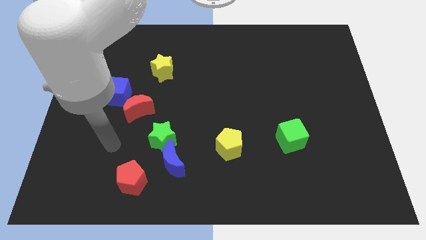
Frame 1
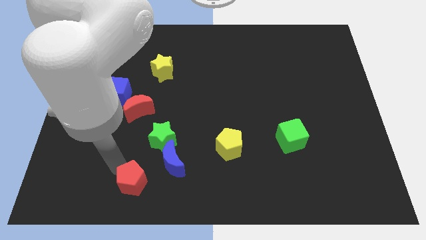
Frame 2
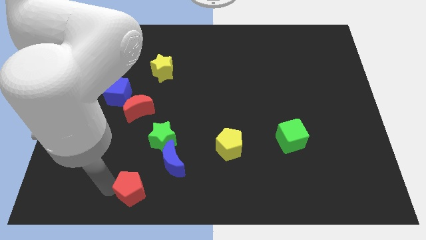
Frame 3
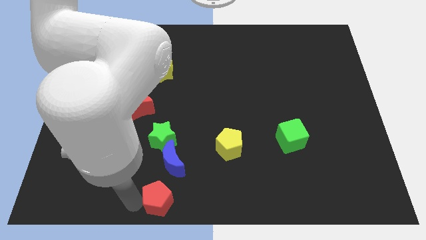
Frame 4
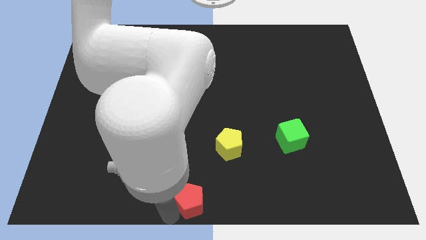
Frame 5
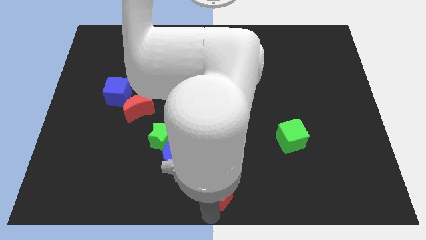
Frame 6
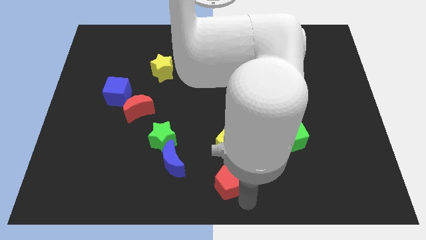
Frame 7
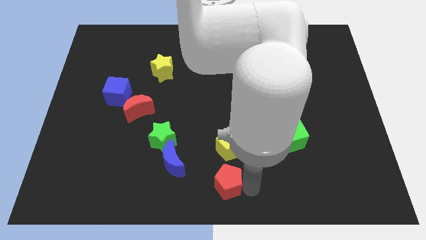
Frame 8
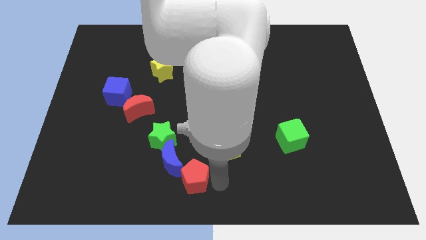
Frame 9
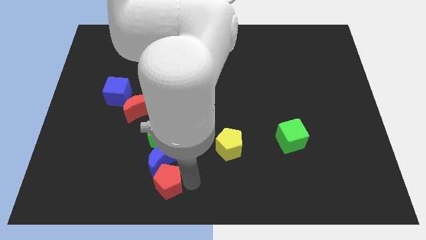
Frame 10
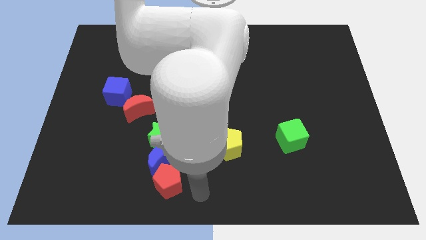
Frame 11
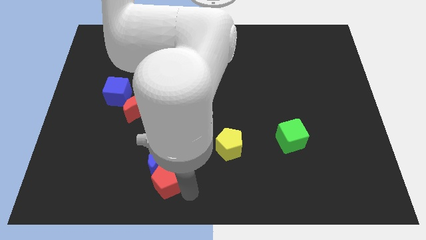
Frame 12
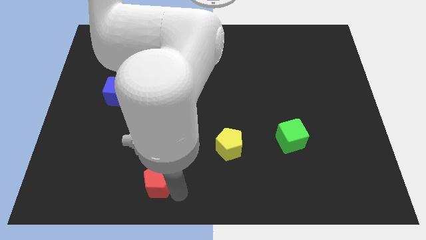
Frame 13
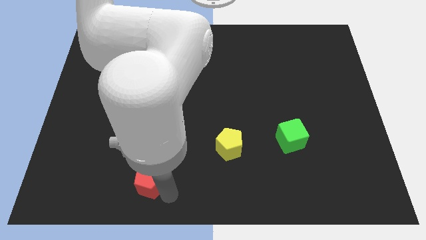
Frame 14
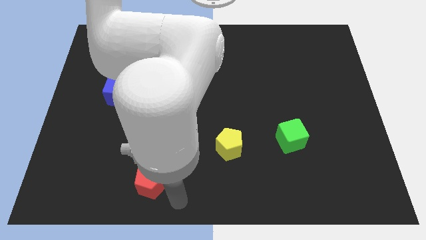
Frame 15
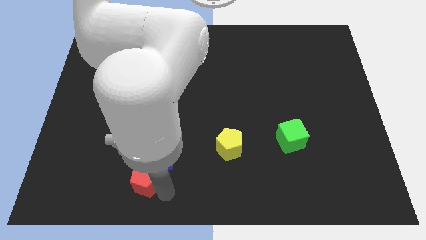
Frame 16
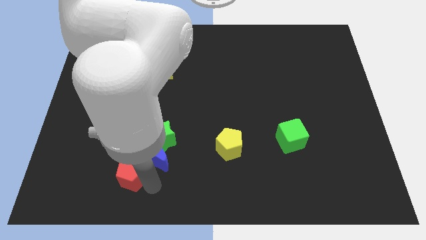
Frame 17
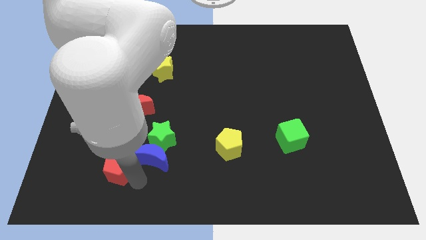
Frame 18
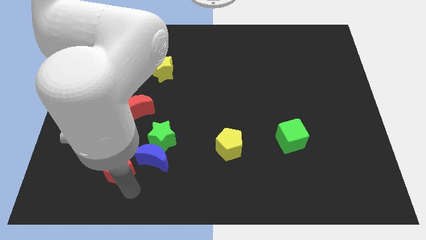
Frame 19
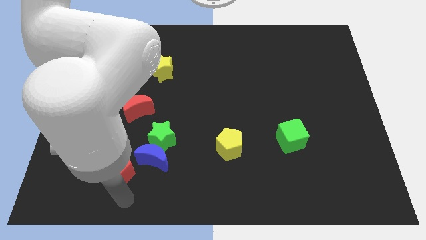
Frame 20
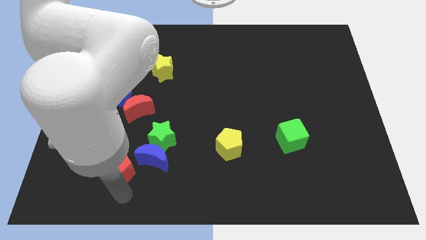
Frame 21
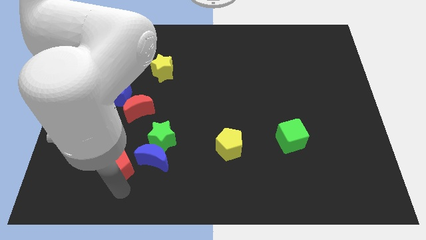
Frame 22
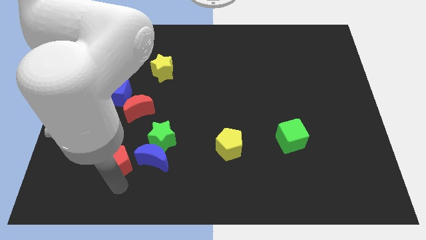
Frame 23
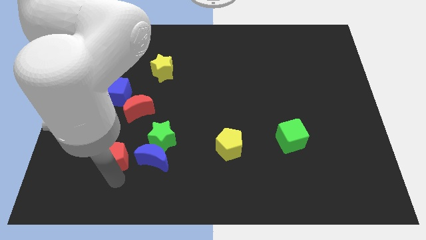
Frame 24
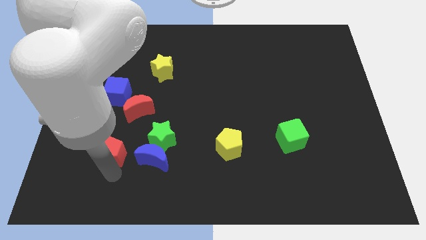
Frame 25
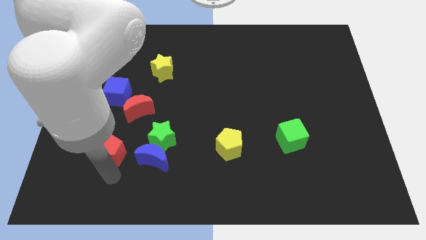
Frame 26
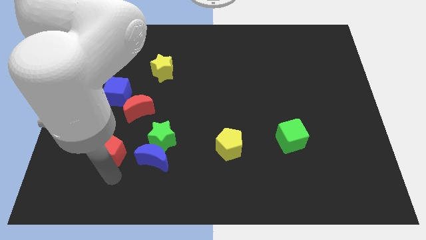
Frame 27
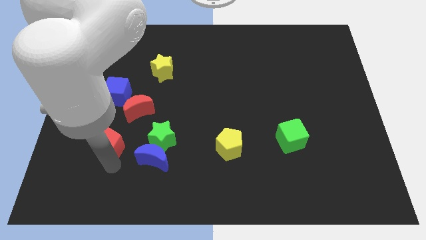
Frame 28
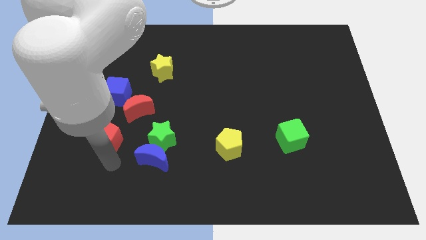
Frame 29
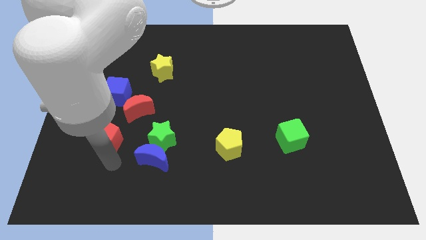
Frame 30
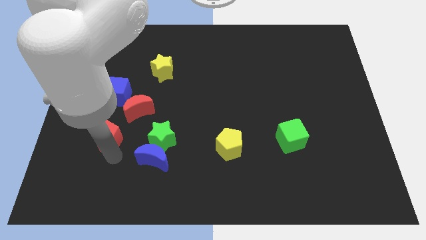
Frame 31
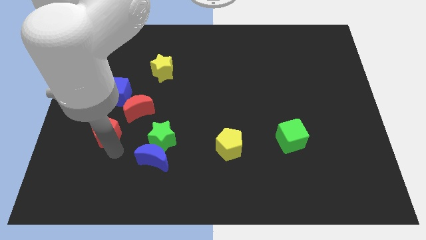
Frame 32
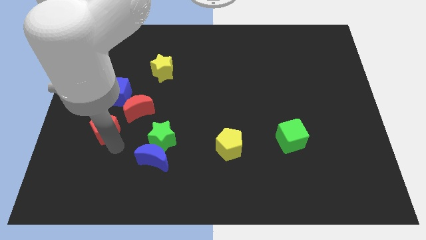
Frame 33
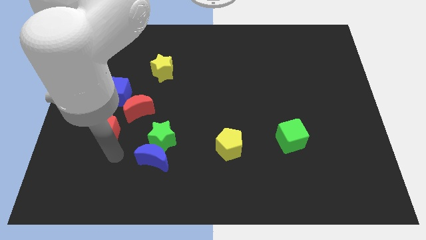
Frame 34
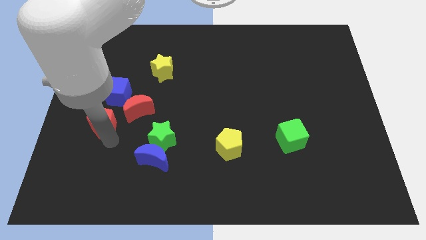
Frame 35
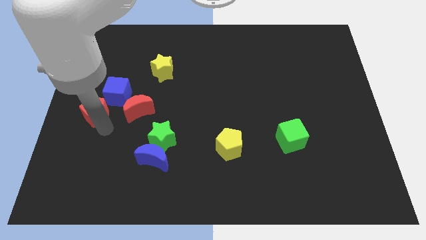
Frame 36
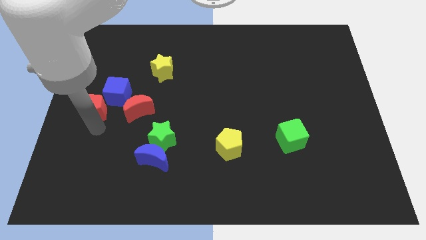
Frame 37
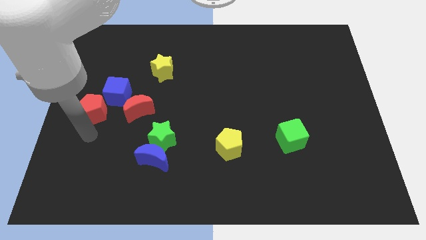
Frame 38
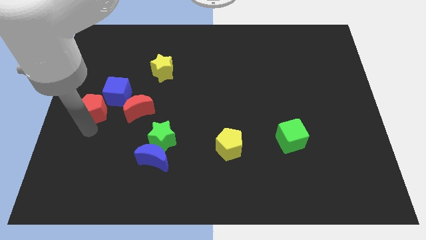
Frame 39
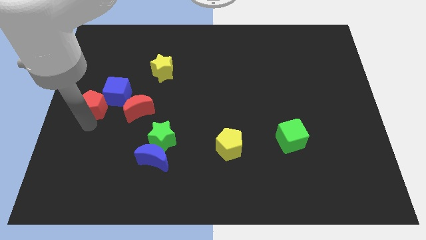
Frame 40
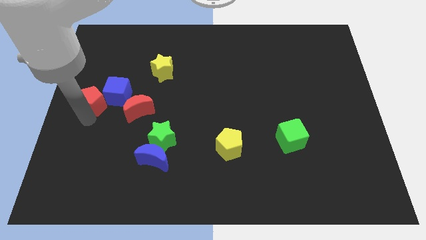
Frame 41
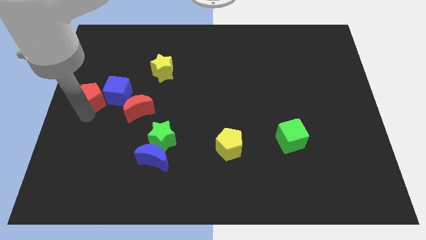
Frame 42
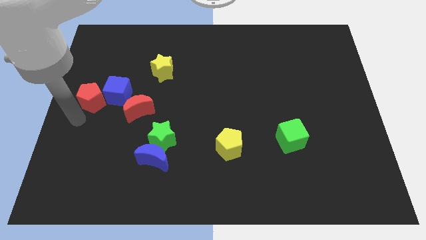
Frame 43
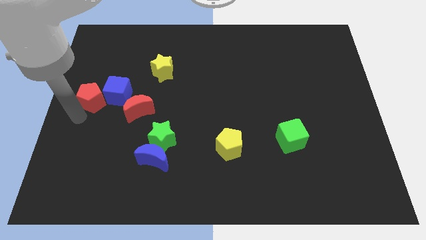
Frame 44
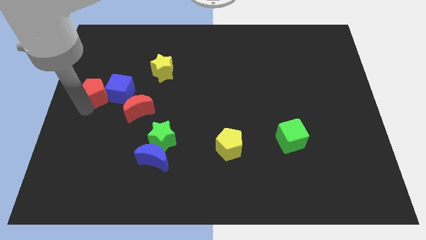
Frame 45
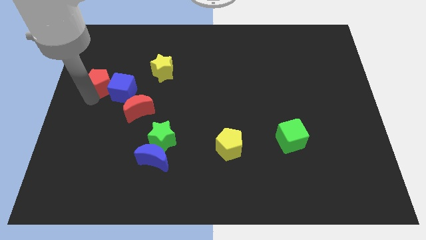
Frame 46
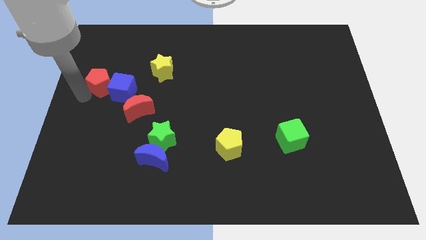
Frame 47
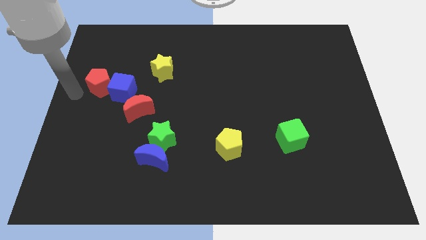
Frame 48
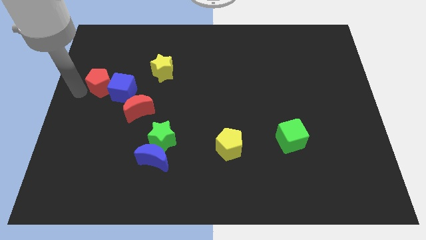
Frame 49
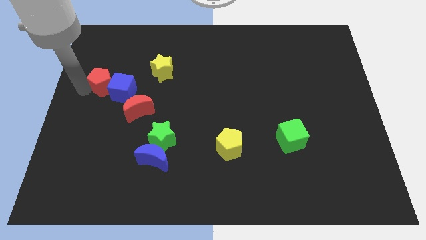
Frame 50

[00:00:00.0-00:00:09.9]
push the red pentagon up

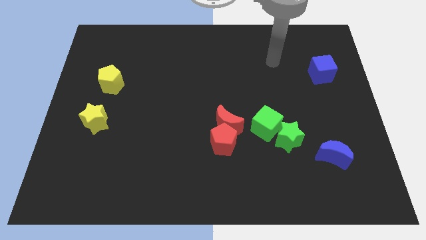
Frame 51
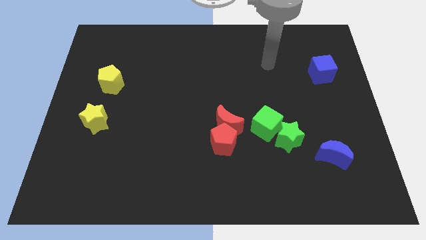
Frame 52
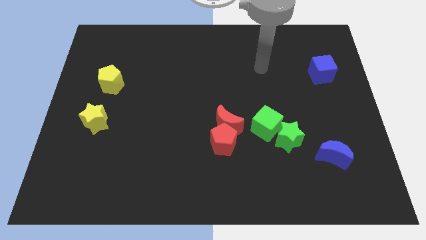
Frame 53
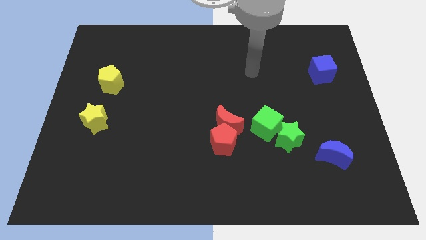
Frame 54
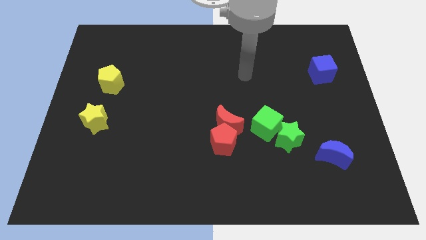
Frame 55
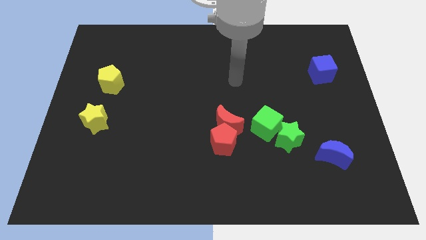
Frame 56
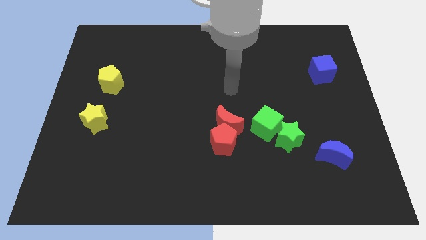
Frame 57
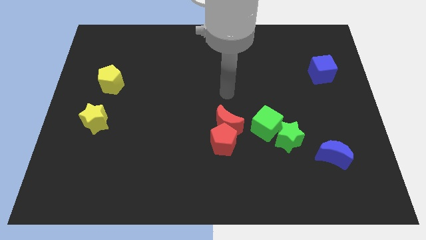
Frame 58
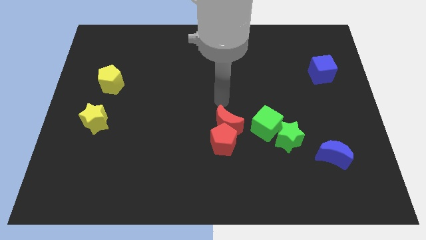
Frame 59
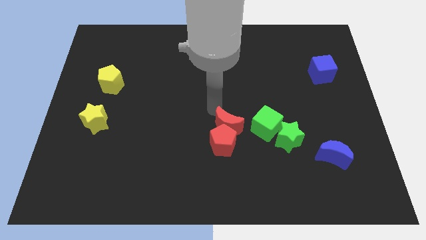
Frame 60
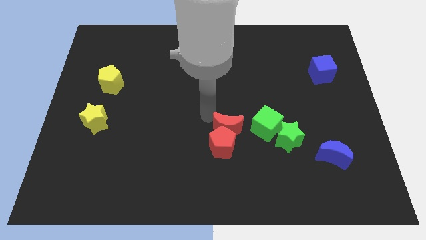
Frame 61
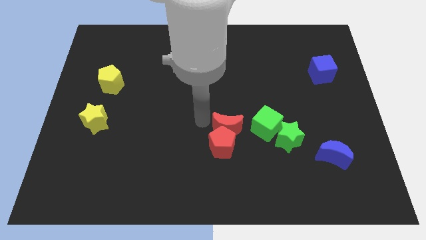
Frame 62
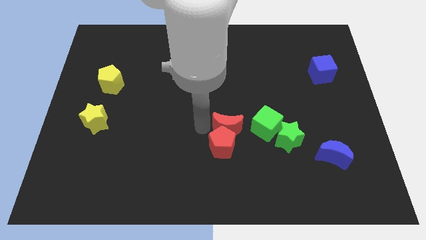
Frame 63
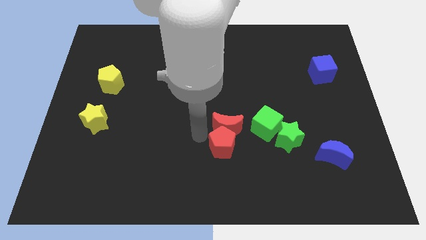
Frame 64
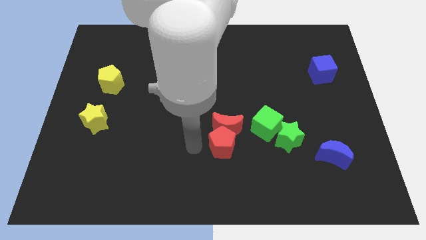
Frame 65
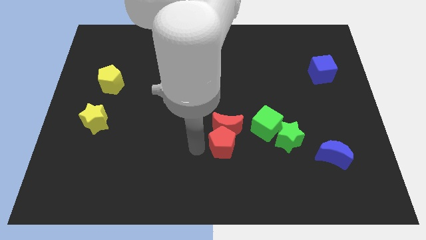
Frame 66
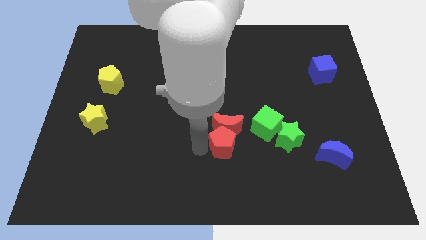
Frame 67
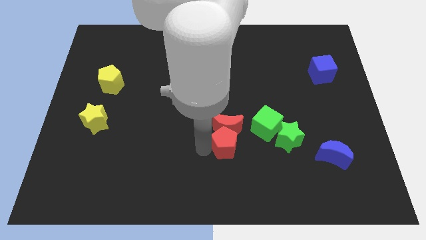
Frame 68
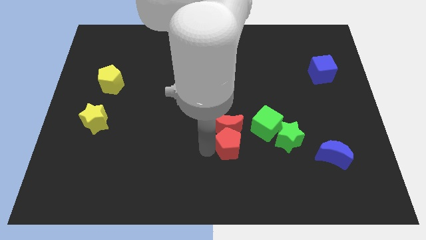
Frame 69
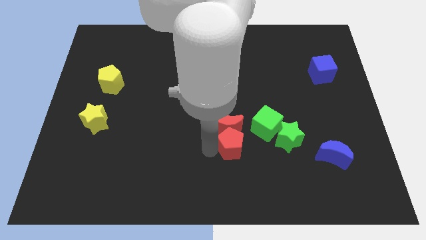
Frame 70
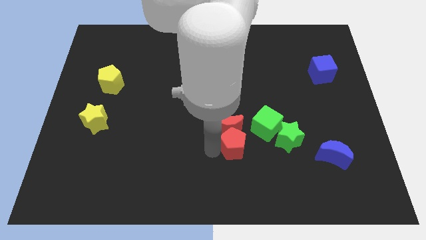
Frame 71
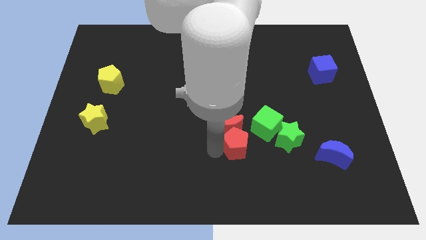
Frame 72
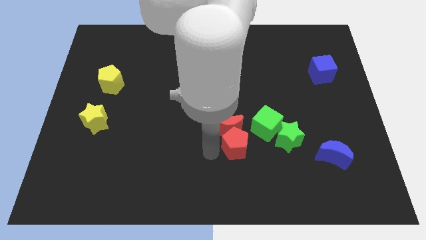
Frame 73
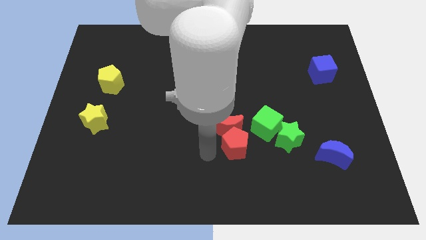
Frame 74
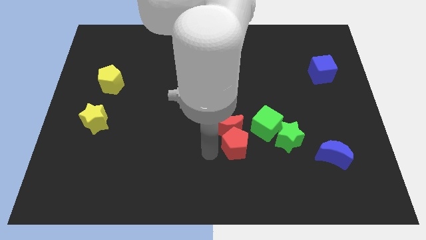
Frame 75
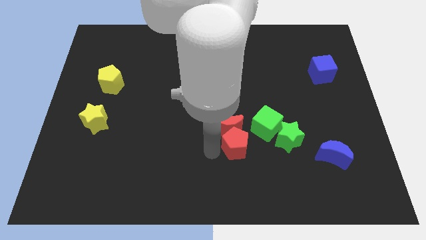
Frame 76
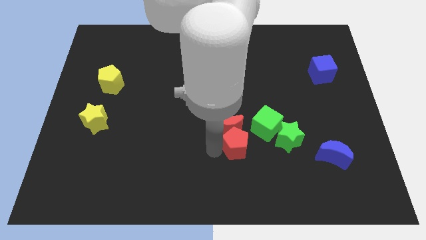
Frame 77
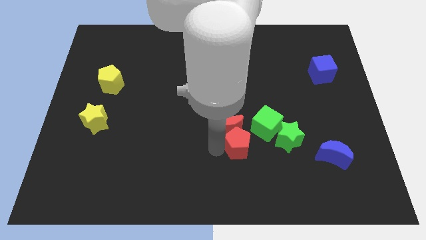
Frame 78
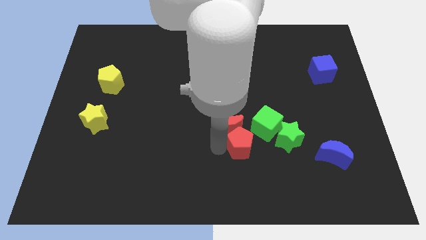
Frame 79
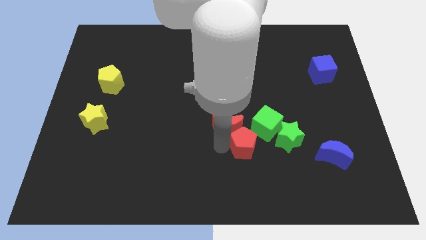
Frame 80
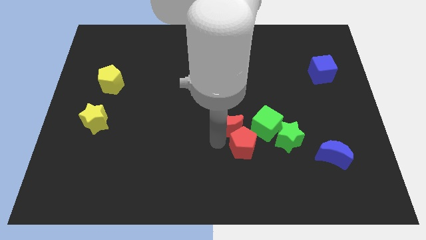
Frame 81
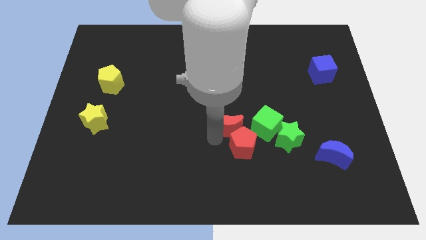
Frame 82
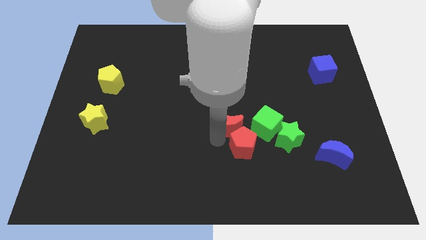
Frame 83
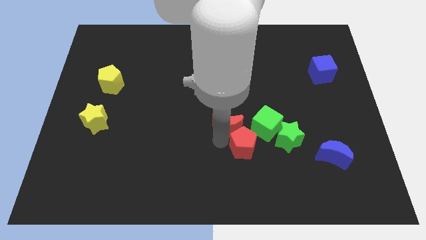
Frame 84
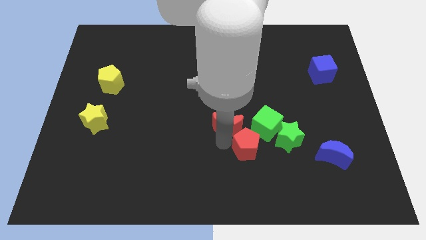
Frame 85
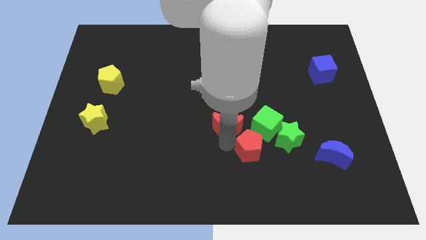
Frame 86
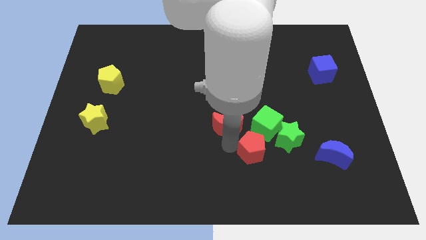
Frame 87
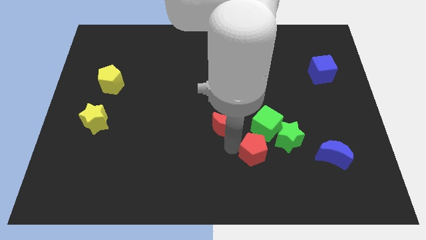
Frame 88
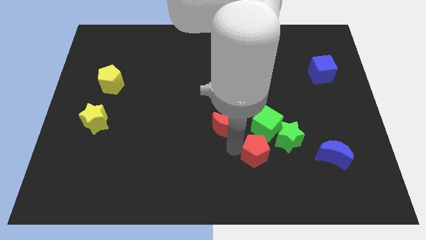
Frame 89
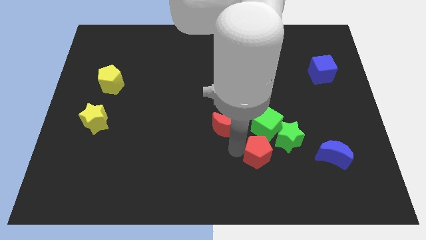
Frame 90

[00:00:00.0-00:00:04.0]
slightly move the red pentagon to the right
